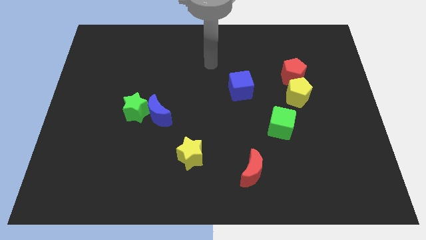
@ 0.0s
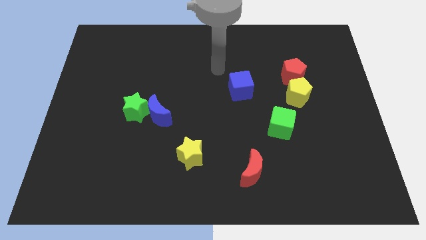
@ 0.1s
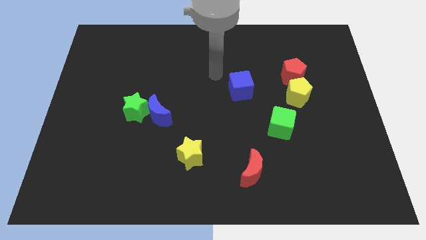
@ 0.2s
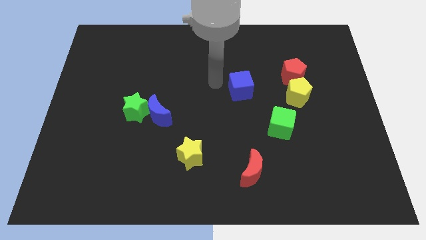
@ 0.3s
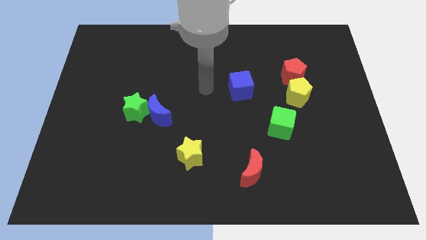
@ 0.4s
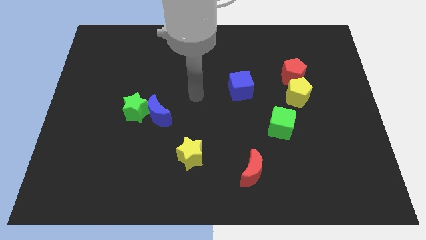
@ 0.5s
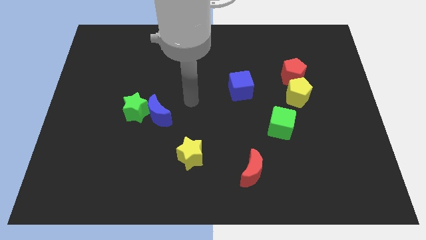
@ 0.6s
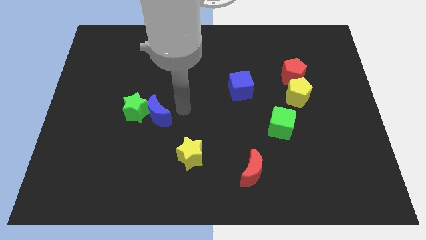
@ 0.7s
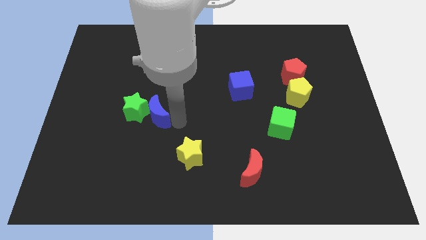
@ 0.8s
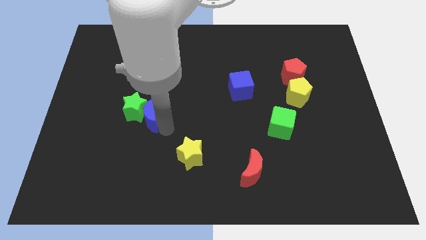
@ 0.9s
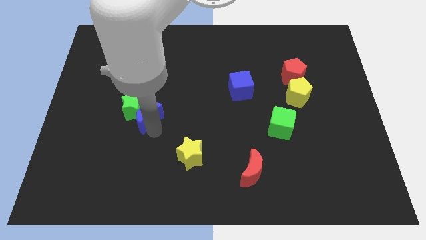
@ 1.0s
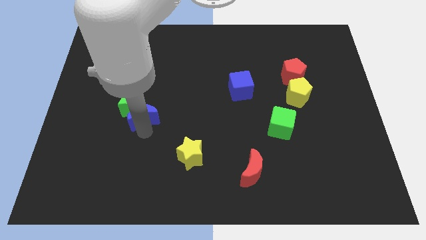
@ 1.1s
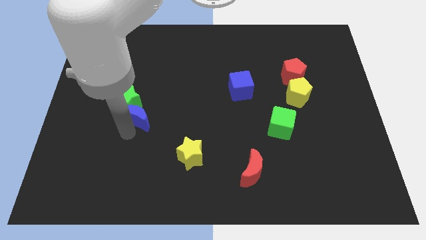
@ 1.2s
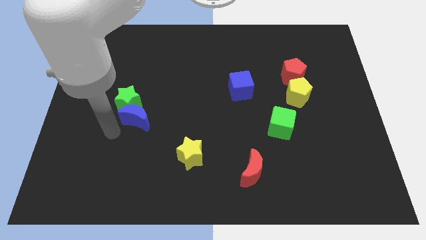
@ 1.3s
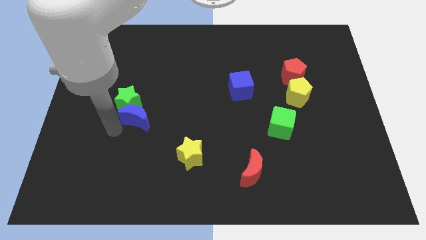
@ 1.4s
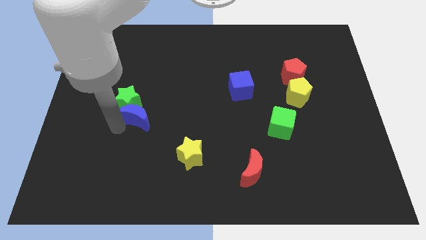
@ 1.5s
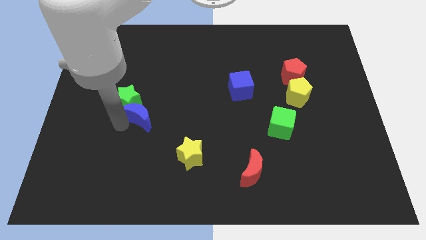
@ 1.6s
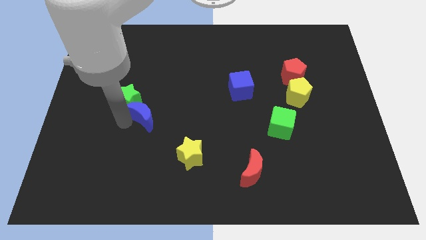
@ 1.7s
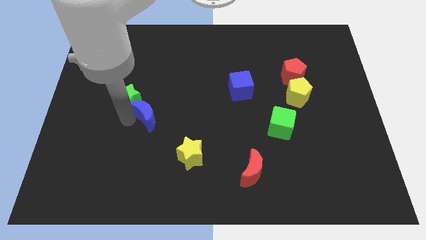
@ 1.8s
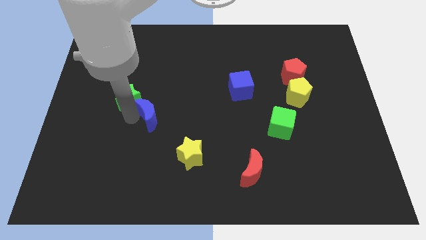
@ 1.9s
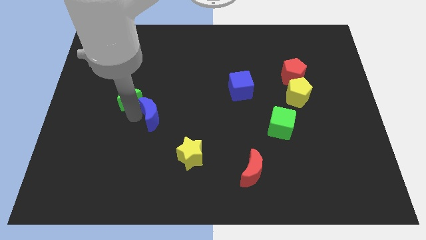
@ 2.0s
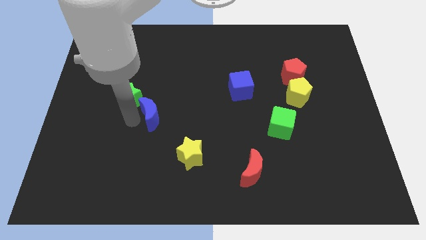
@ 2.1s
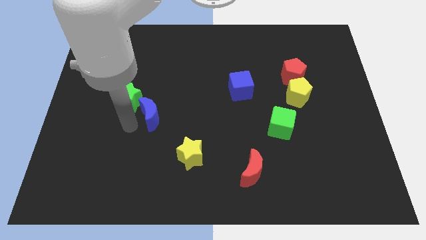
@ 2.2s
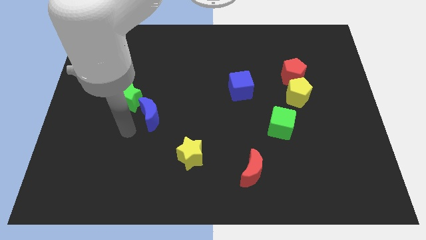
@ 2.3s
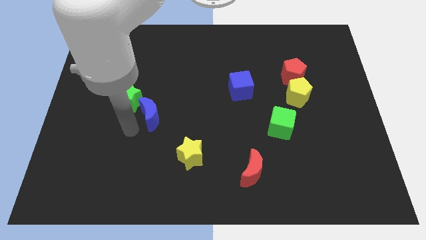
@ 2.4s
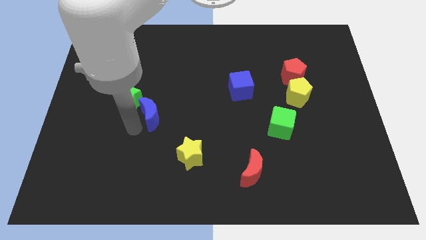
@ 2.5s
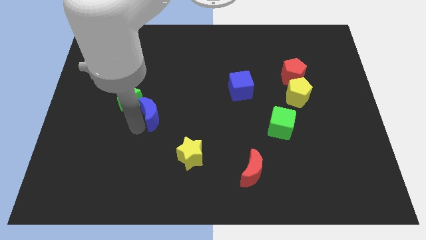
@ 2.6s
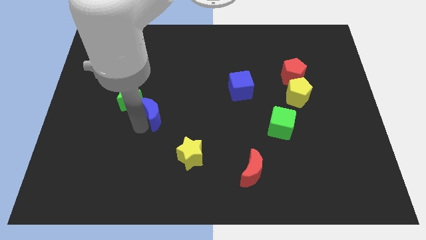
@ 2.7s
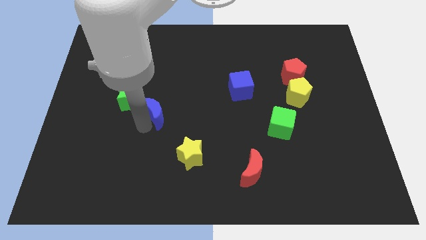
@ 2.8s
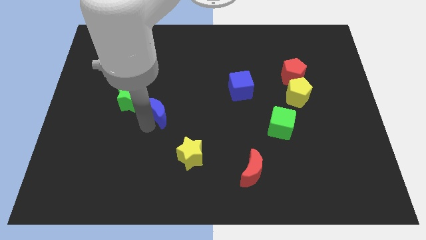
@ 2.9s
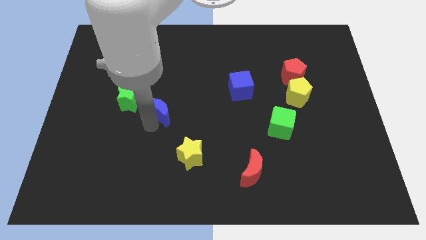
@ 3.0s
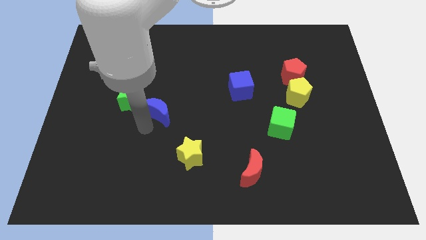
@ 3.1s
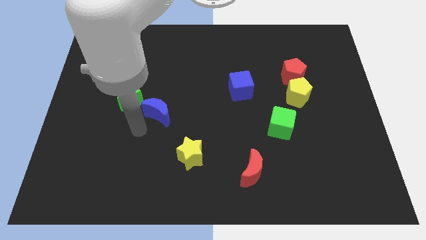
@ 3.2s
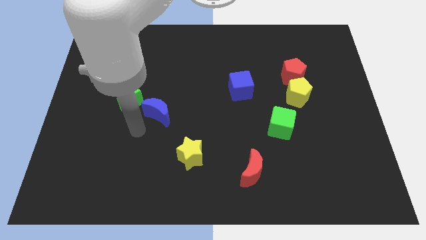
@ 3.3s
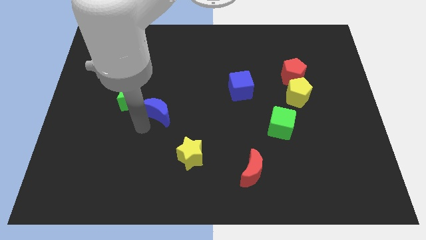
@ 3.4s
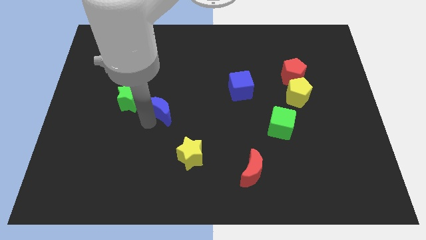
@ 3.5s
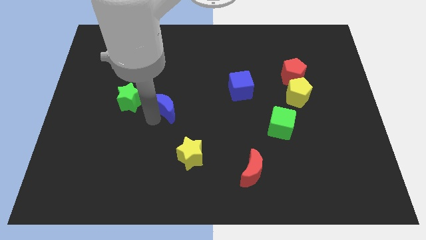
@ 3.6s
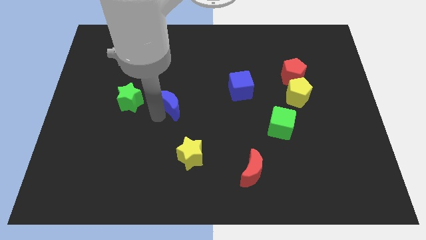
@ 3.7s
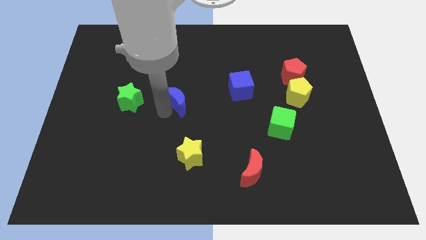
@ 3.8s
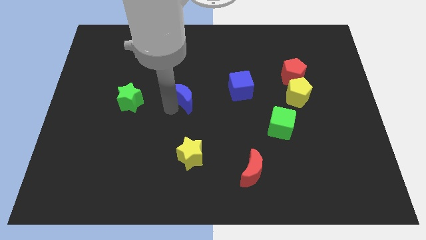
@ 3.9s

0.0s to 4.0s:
slide the blue moon a bit upwards and right

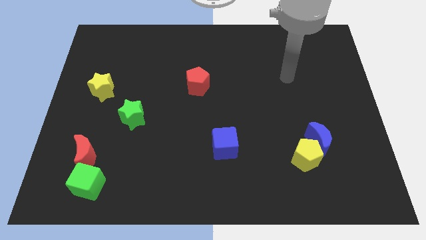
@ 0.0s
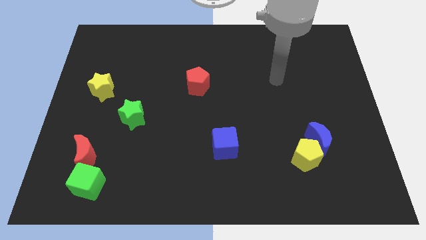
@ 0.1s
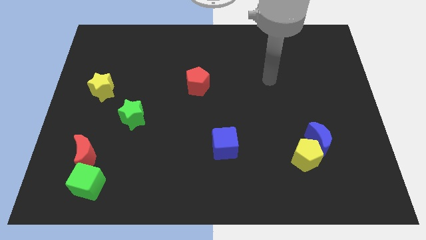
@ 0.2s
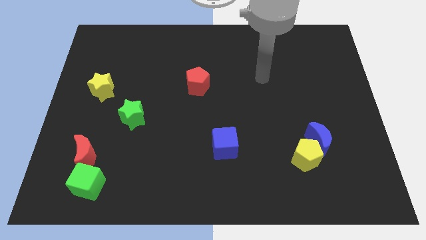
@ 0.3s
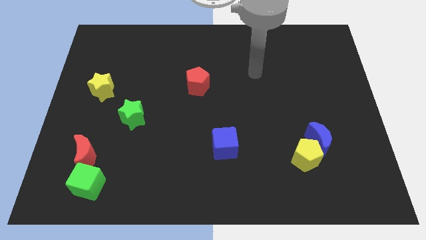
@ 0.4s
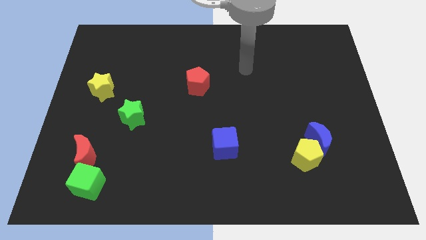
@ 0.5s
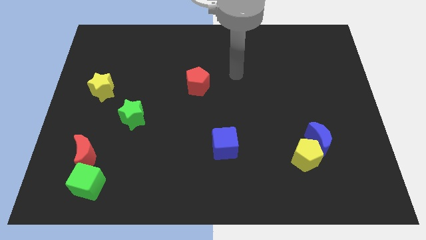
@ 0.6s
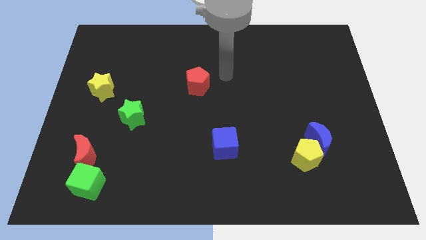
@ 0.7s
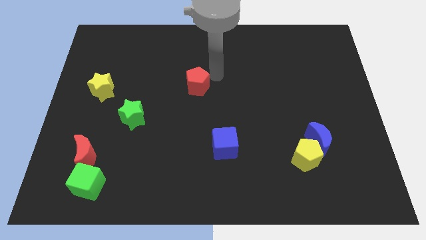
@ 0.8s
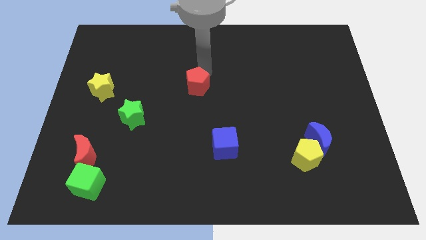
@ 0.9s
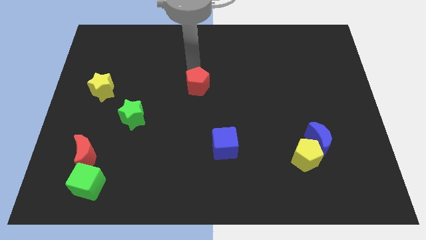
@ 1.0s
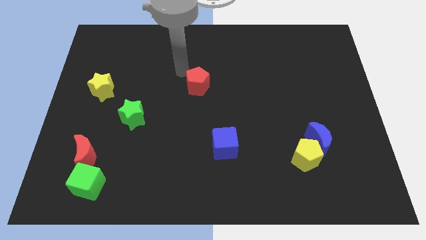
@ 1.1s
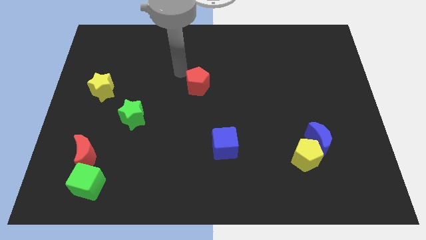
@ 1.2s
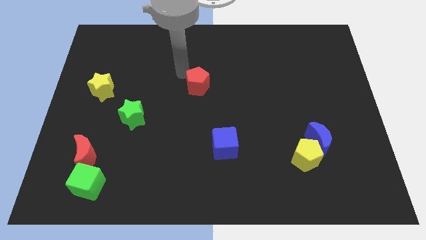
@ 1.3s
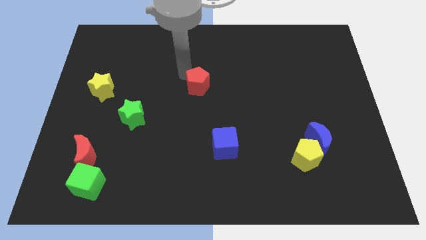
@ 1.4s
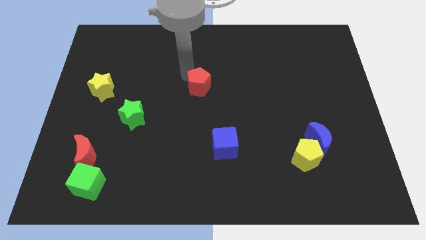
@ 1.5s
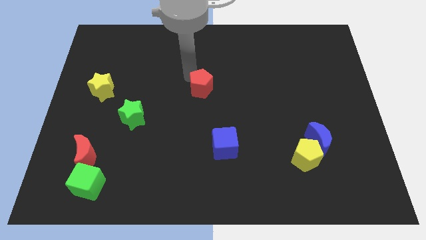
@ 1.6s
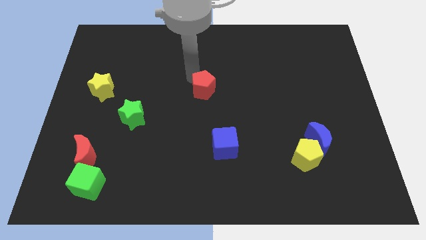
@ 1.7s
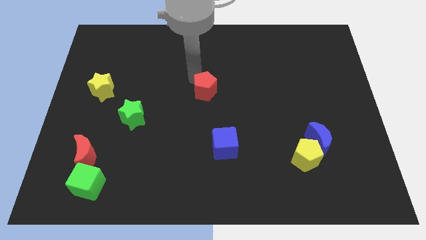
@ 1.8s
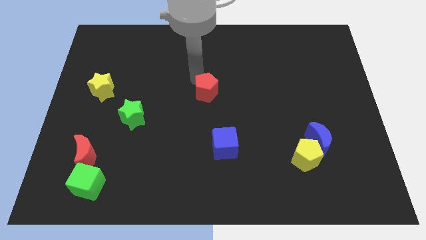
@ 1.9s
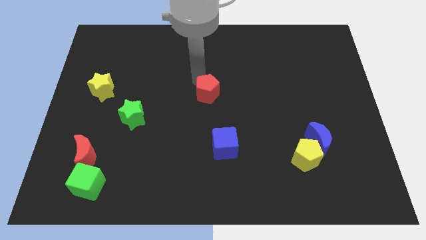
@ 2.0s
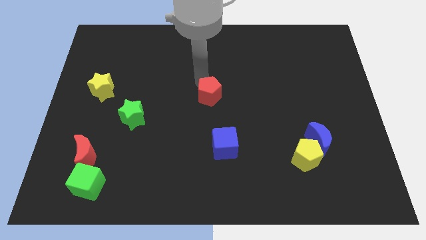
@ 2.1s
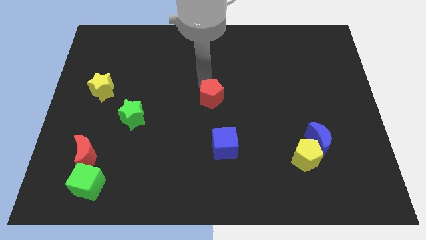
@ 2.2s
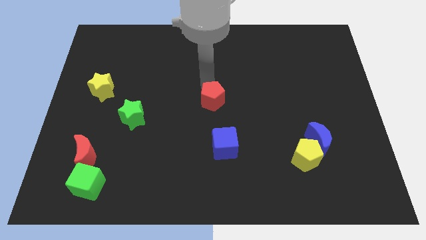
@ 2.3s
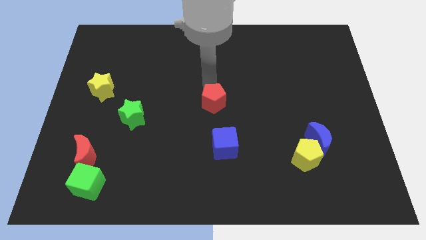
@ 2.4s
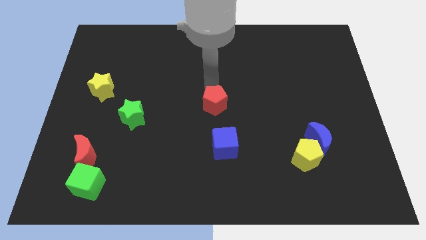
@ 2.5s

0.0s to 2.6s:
push the red pentagon a little bit downwards and right

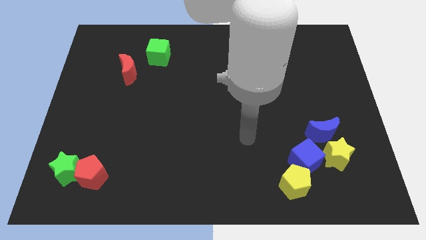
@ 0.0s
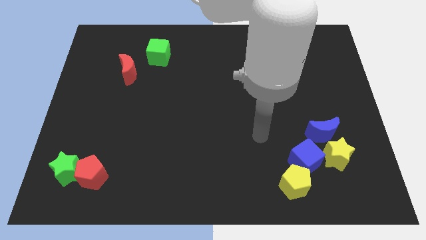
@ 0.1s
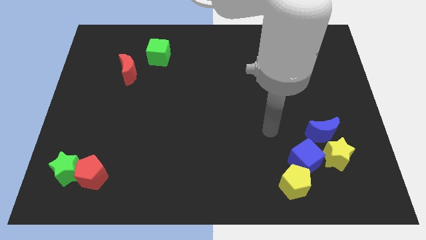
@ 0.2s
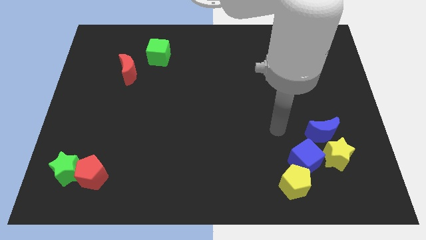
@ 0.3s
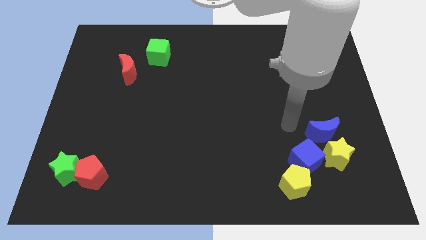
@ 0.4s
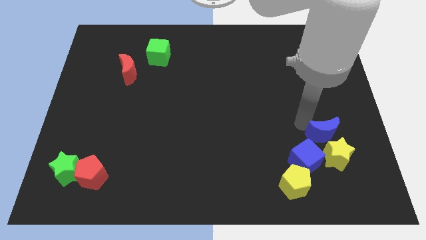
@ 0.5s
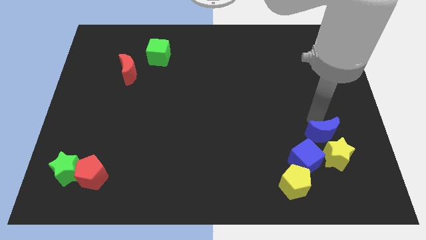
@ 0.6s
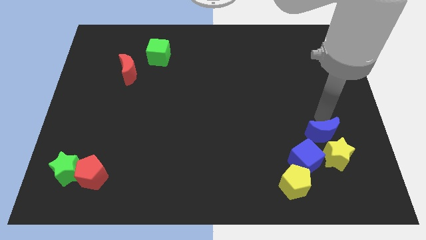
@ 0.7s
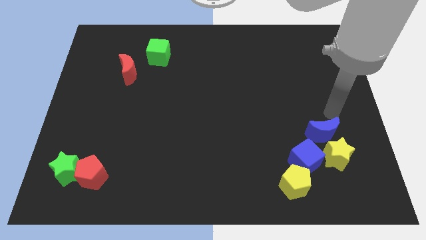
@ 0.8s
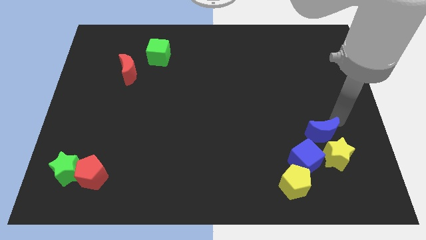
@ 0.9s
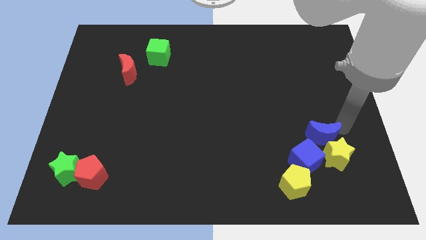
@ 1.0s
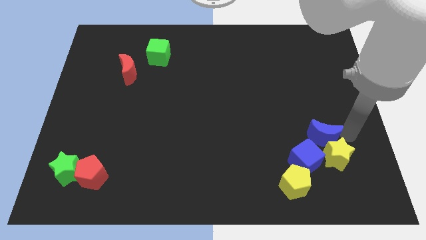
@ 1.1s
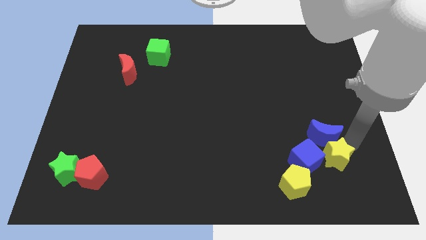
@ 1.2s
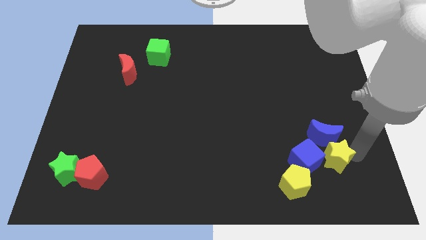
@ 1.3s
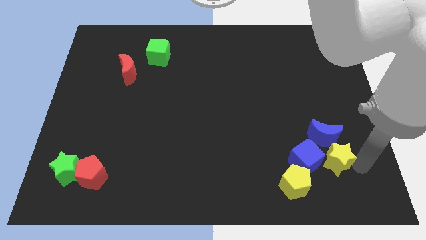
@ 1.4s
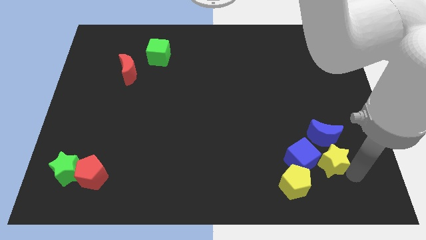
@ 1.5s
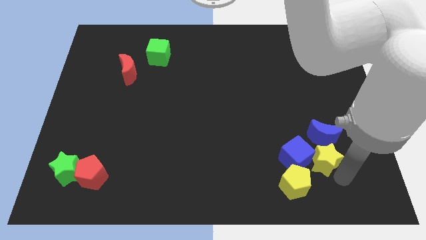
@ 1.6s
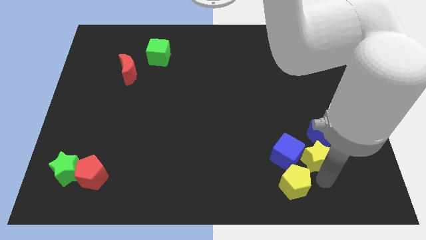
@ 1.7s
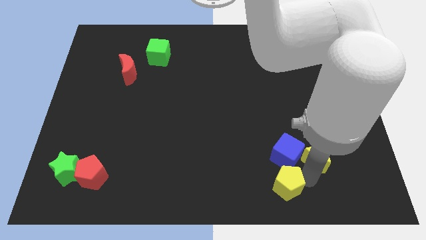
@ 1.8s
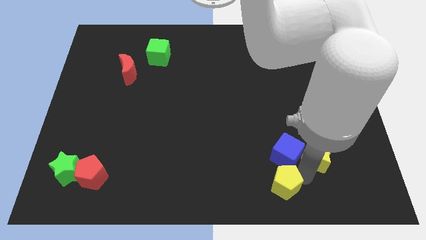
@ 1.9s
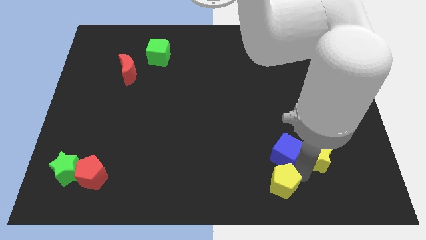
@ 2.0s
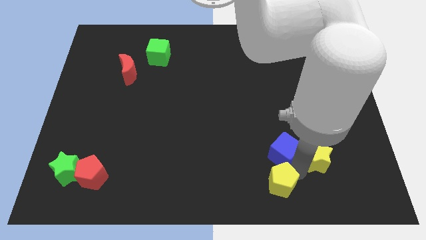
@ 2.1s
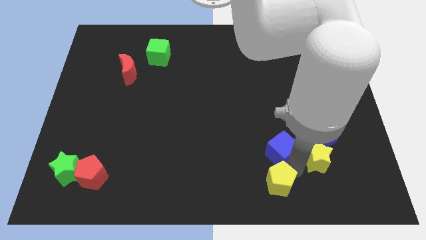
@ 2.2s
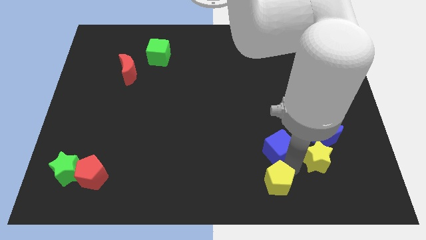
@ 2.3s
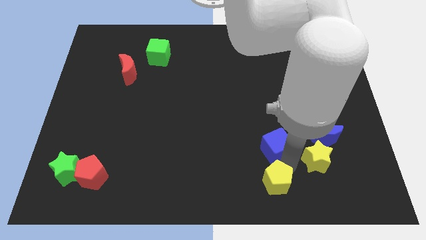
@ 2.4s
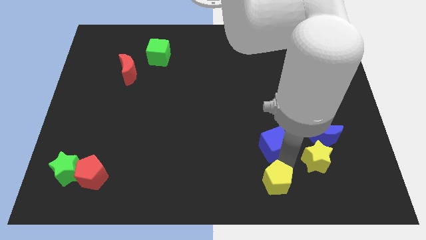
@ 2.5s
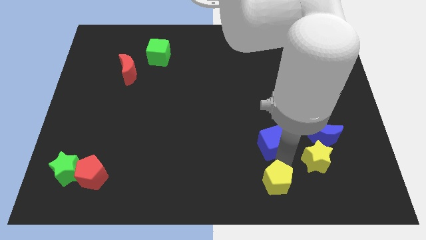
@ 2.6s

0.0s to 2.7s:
slightly slide the blue cube diagonally upwards and left
